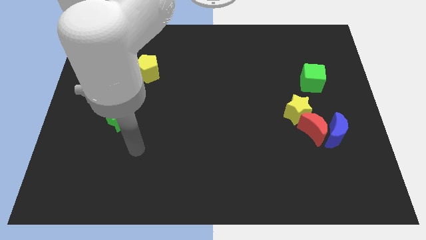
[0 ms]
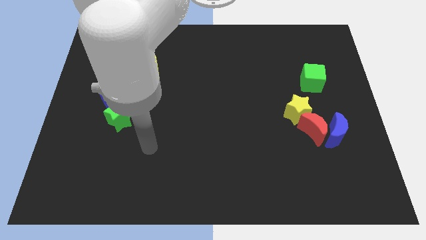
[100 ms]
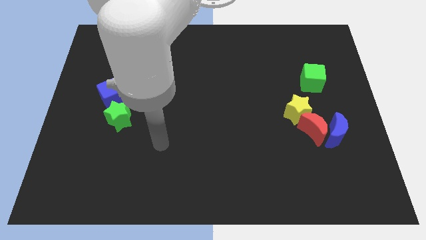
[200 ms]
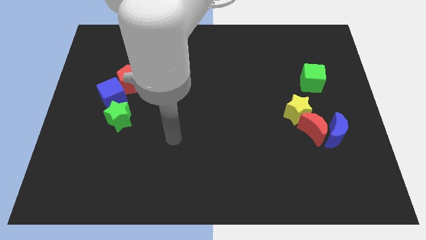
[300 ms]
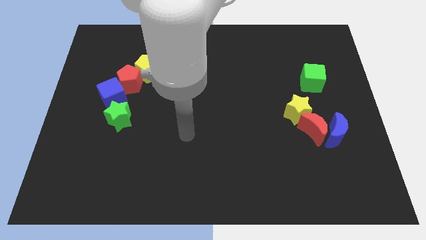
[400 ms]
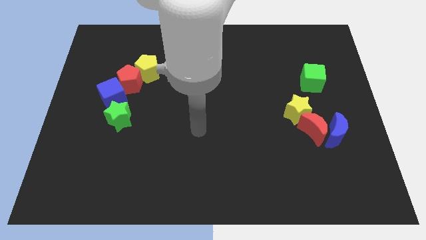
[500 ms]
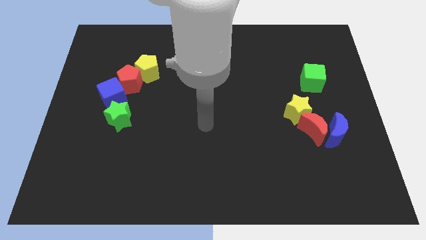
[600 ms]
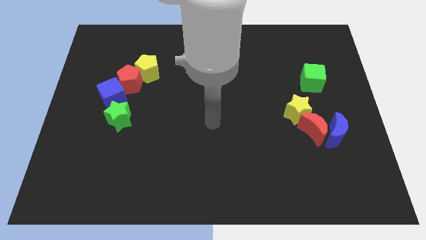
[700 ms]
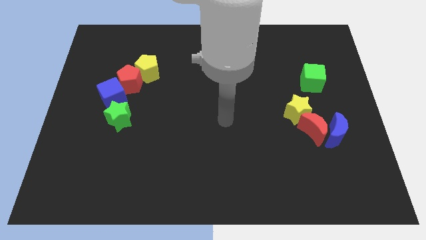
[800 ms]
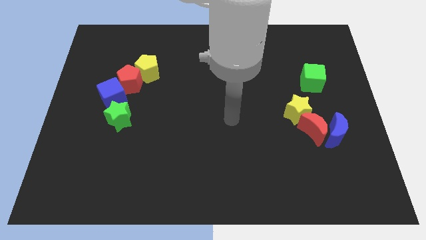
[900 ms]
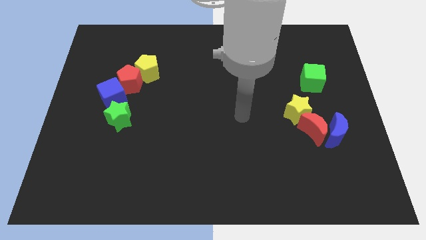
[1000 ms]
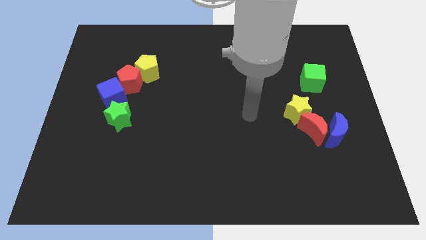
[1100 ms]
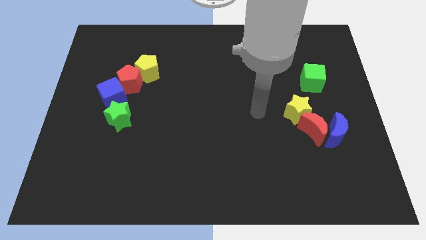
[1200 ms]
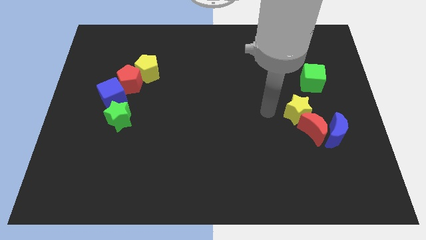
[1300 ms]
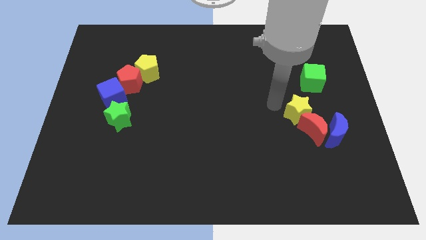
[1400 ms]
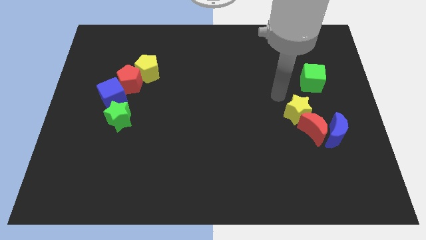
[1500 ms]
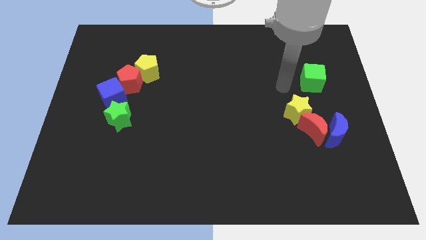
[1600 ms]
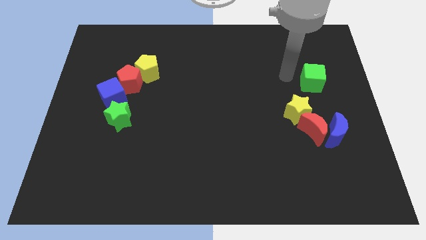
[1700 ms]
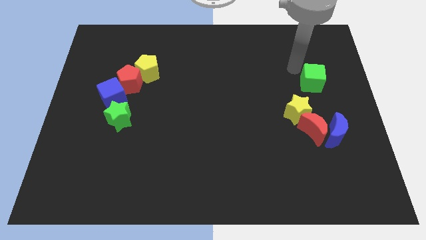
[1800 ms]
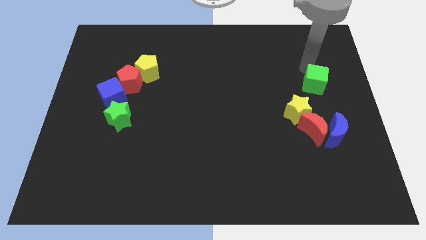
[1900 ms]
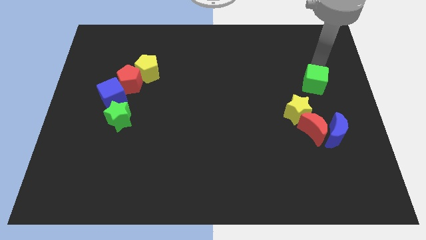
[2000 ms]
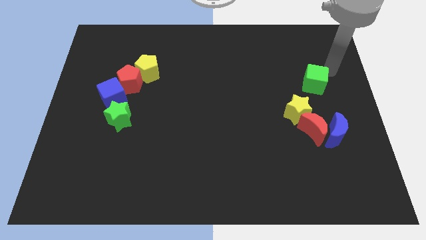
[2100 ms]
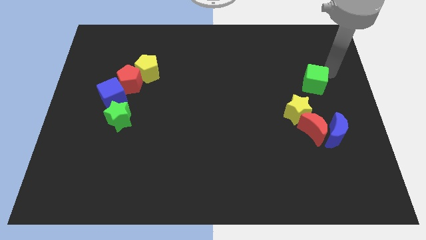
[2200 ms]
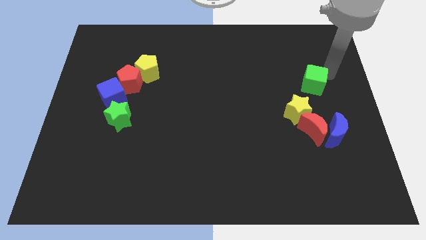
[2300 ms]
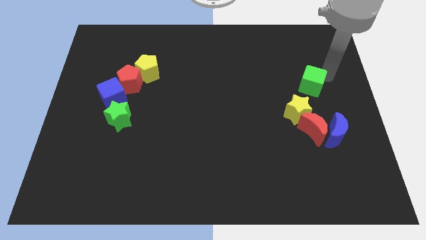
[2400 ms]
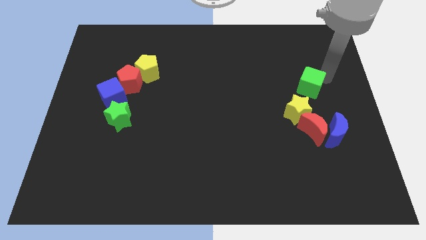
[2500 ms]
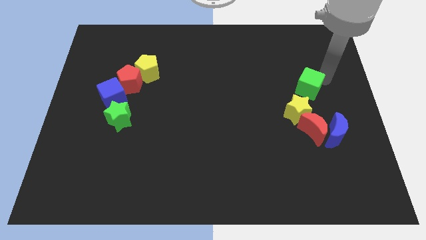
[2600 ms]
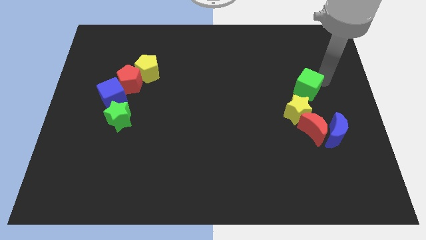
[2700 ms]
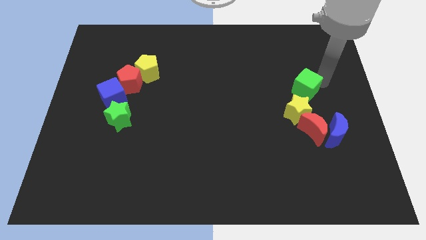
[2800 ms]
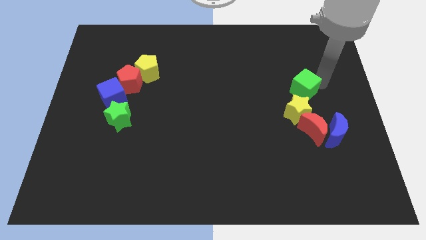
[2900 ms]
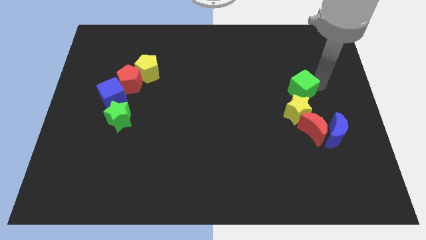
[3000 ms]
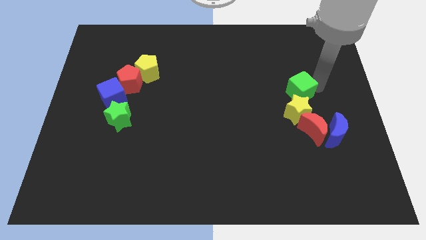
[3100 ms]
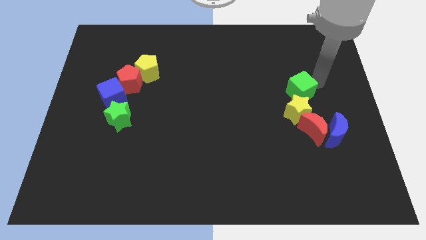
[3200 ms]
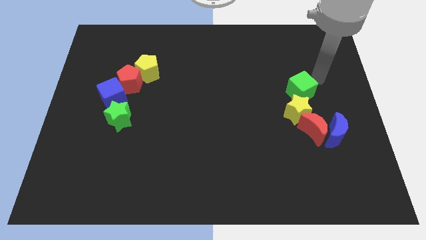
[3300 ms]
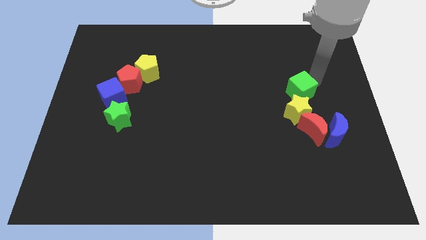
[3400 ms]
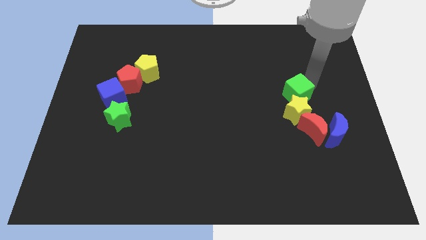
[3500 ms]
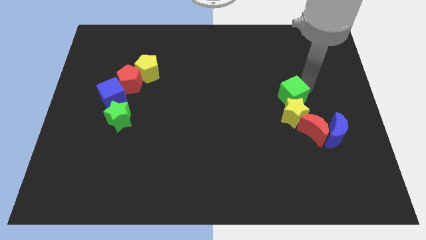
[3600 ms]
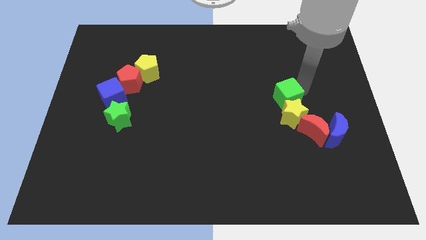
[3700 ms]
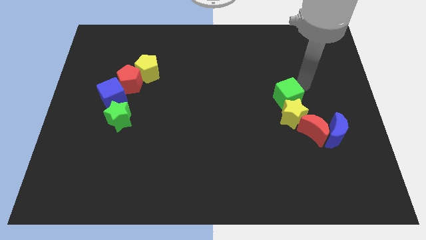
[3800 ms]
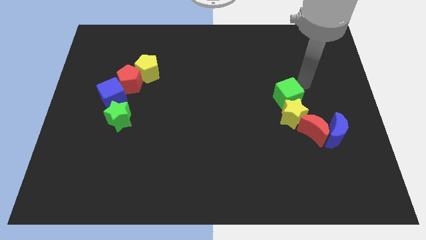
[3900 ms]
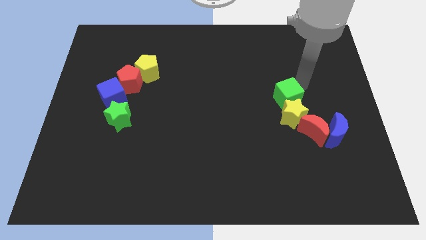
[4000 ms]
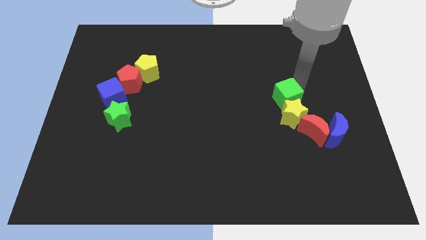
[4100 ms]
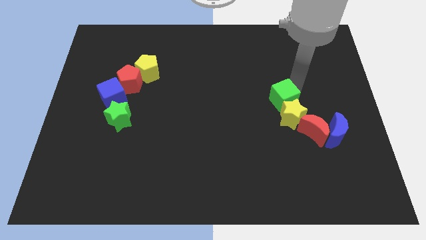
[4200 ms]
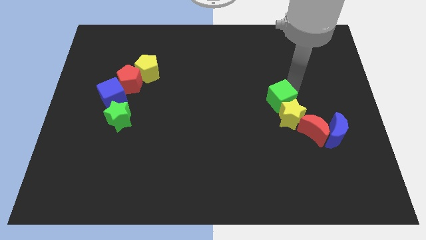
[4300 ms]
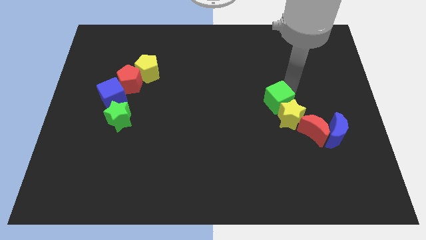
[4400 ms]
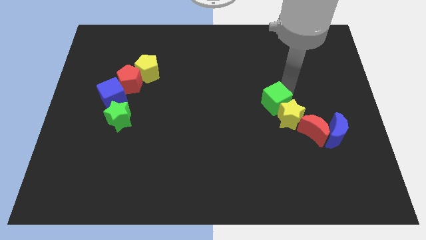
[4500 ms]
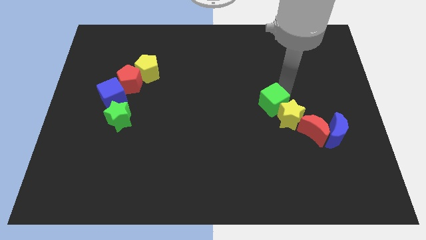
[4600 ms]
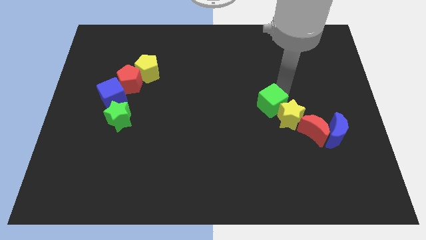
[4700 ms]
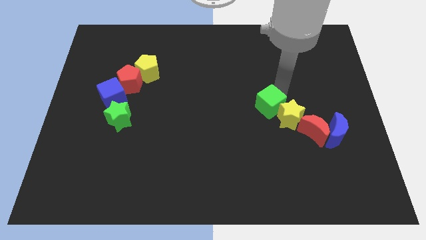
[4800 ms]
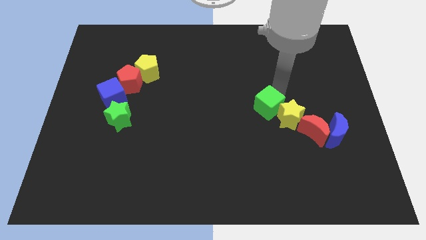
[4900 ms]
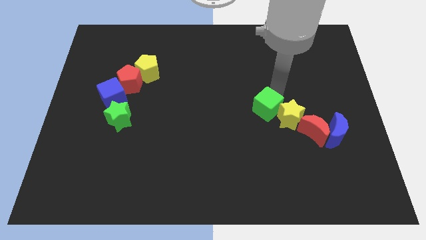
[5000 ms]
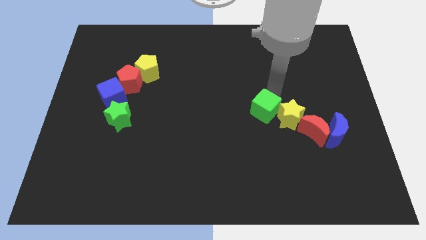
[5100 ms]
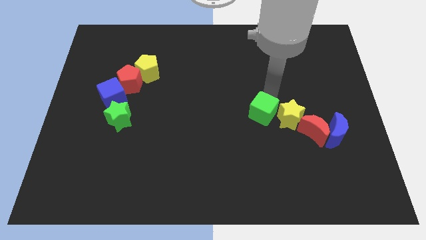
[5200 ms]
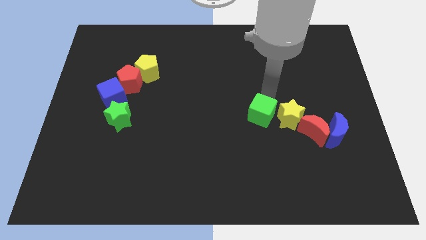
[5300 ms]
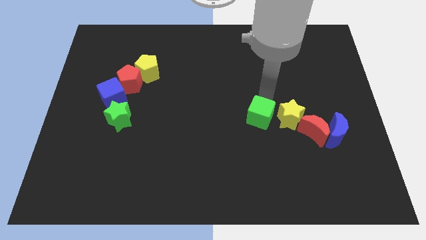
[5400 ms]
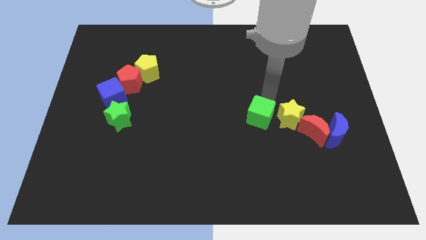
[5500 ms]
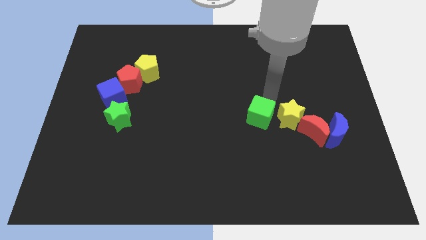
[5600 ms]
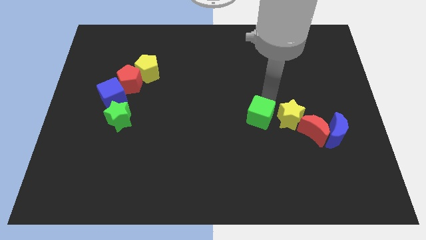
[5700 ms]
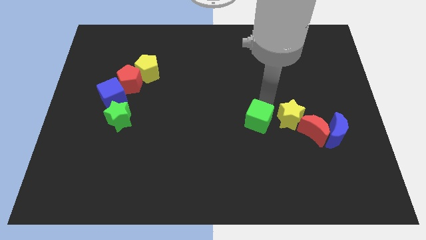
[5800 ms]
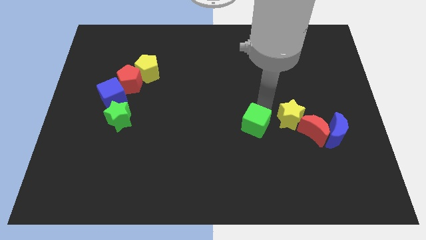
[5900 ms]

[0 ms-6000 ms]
move the green cube diagonally down and to the left

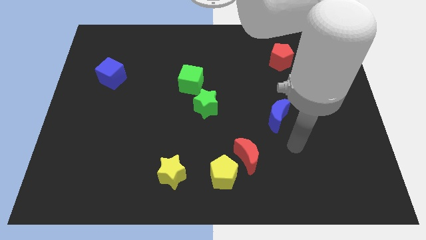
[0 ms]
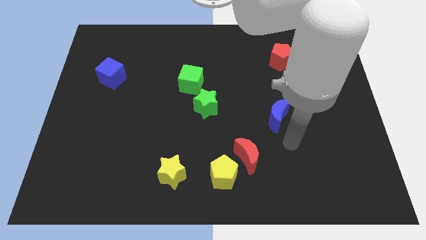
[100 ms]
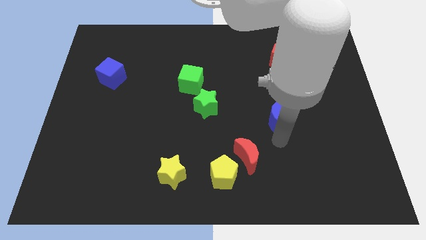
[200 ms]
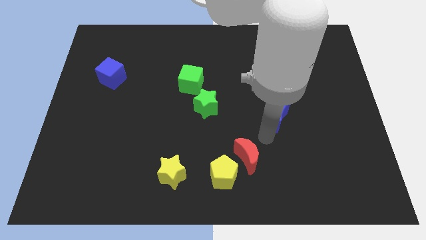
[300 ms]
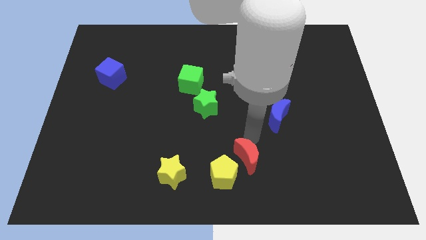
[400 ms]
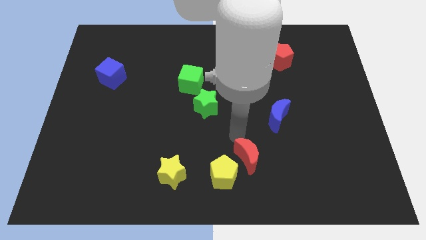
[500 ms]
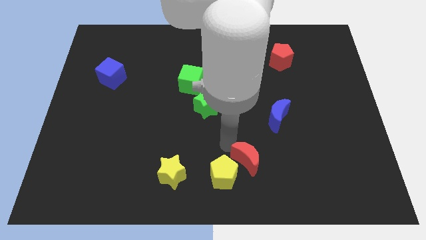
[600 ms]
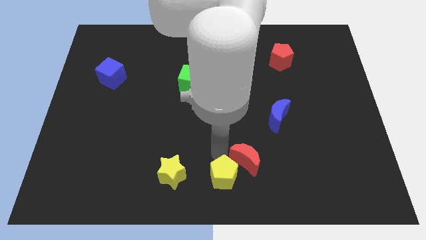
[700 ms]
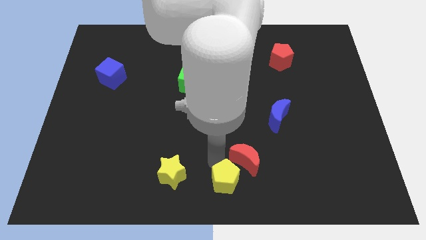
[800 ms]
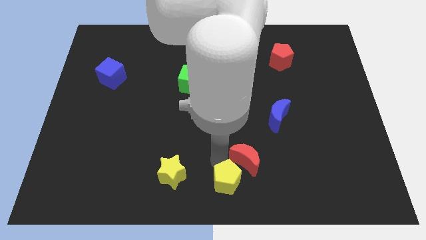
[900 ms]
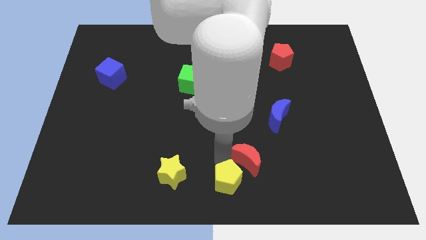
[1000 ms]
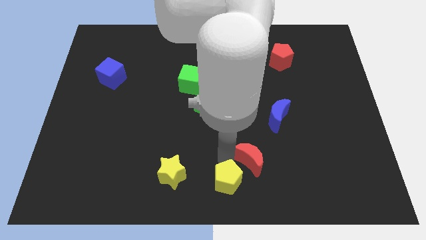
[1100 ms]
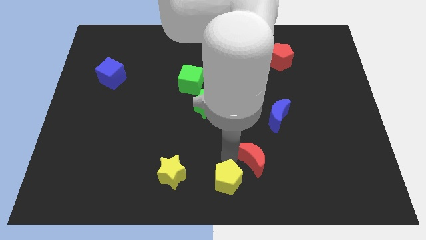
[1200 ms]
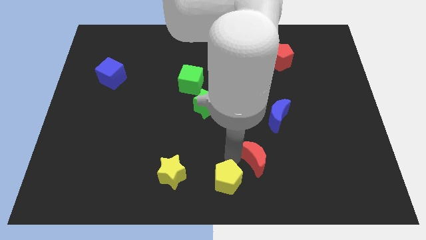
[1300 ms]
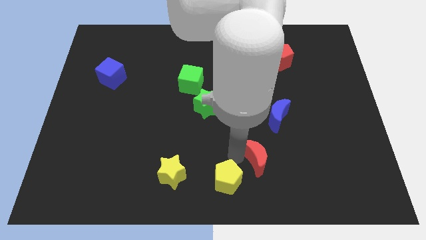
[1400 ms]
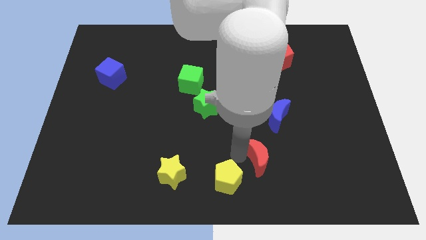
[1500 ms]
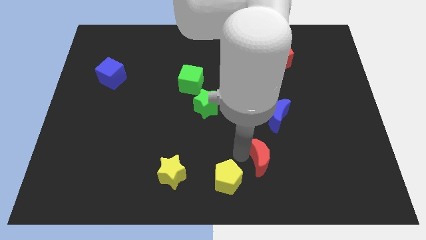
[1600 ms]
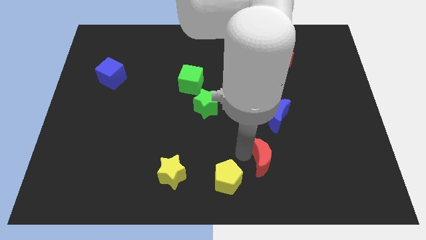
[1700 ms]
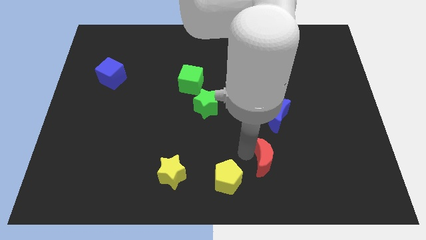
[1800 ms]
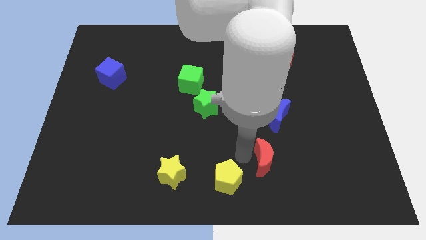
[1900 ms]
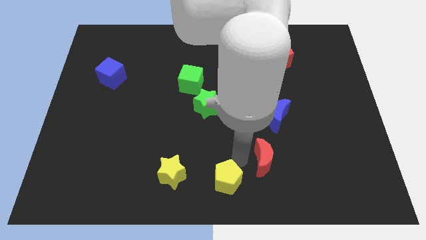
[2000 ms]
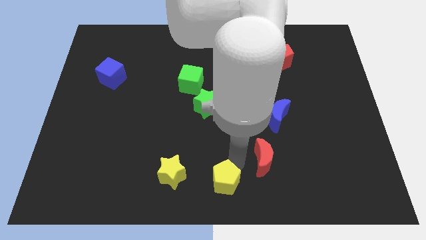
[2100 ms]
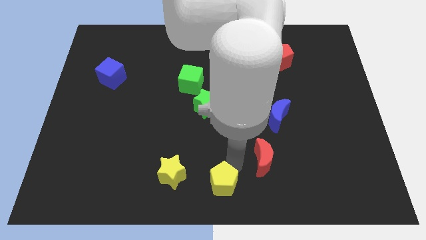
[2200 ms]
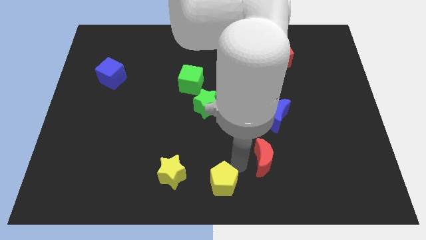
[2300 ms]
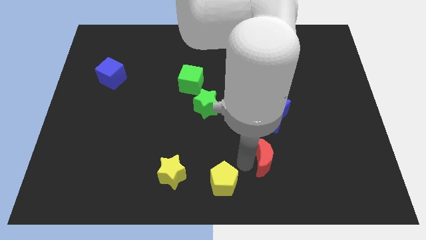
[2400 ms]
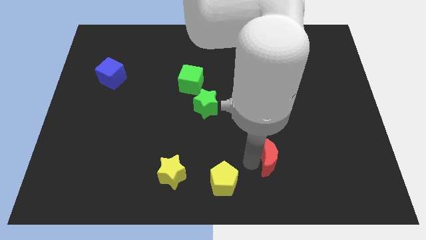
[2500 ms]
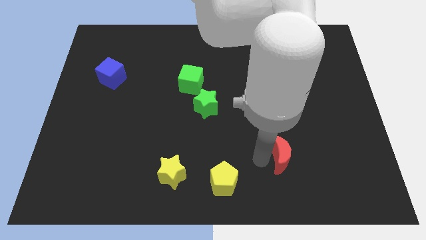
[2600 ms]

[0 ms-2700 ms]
slide the red moon right somewhat
